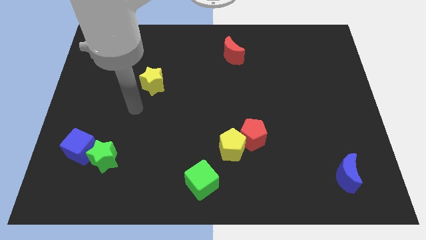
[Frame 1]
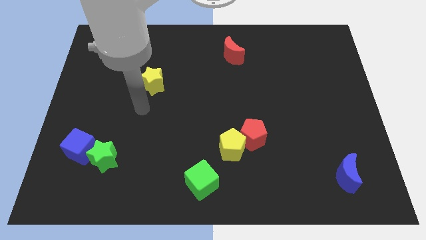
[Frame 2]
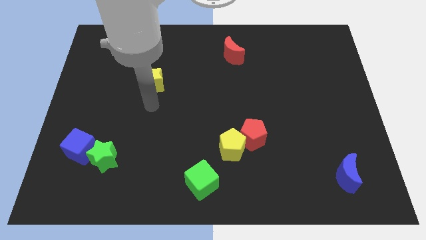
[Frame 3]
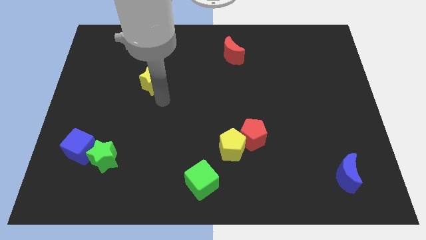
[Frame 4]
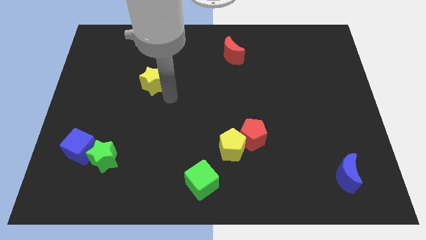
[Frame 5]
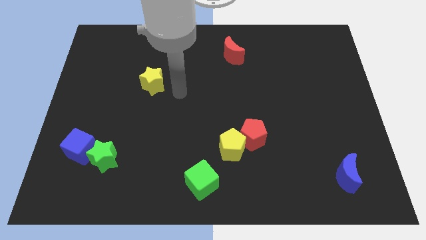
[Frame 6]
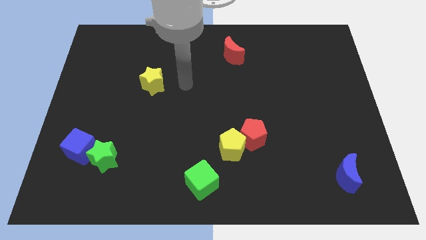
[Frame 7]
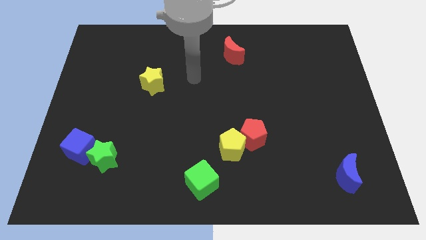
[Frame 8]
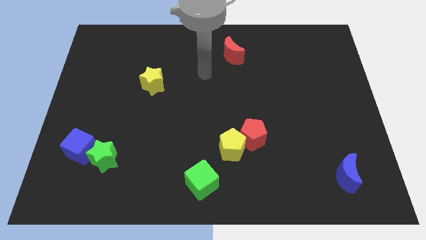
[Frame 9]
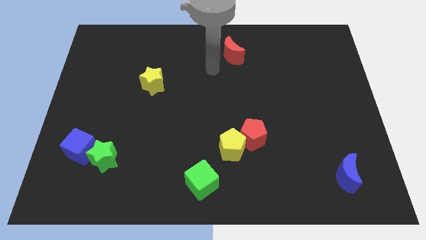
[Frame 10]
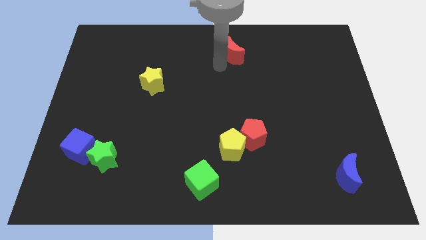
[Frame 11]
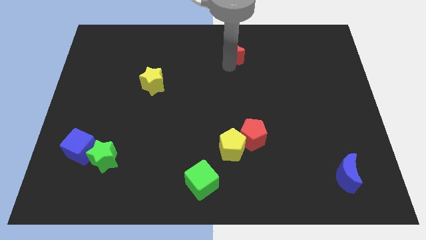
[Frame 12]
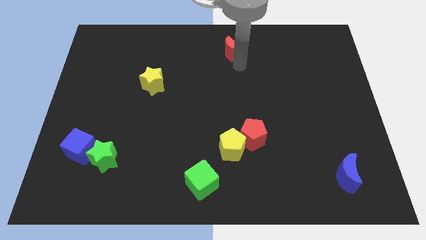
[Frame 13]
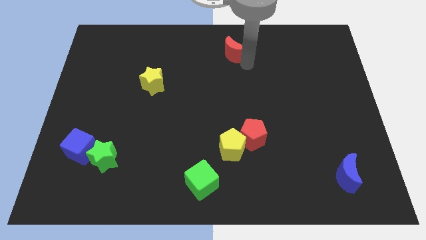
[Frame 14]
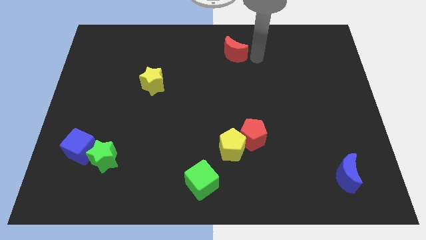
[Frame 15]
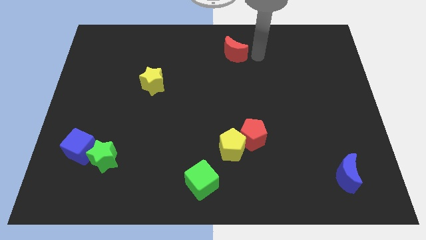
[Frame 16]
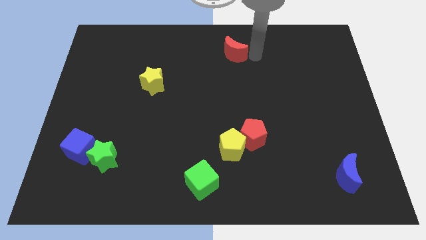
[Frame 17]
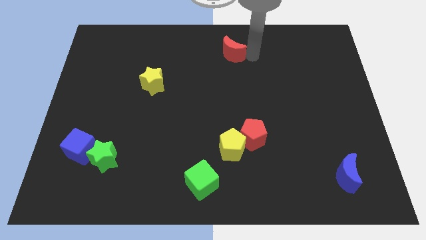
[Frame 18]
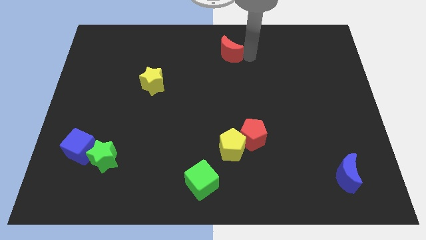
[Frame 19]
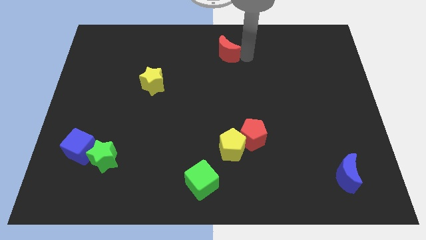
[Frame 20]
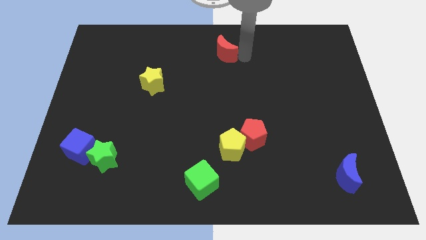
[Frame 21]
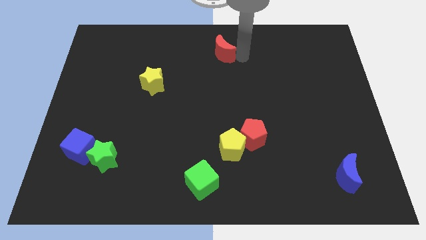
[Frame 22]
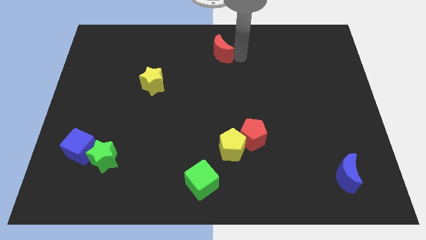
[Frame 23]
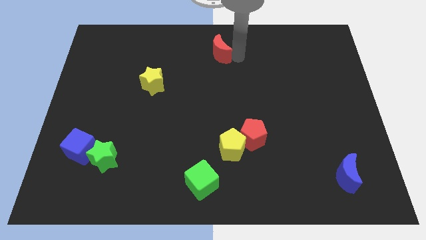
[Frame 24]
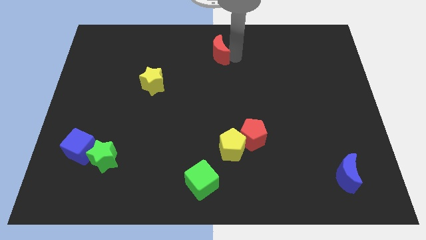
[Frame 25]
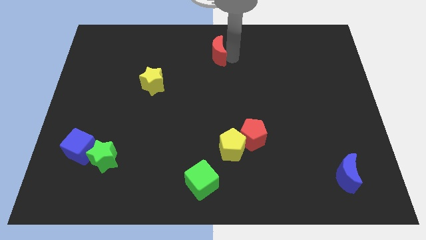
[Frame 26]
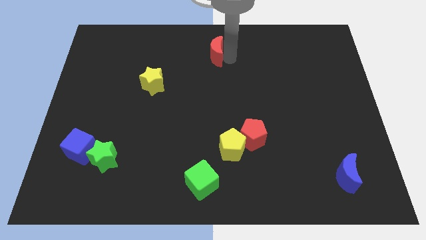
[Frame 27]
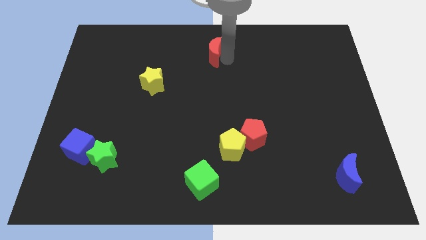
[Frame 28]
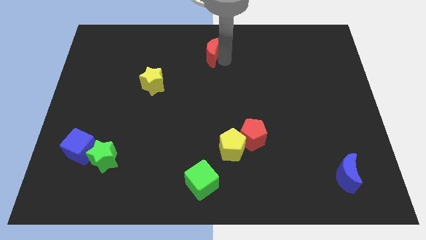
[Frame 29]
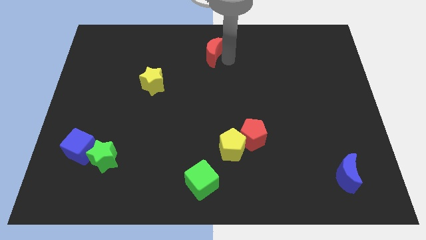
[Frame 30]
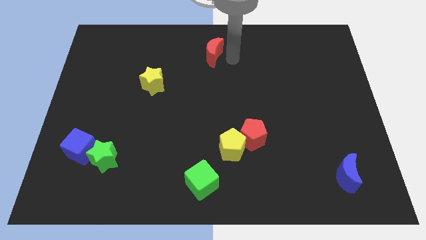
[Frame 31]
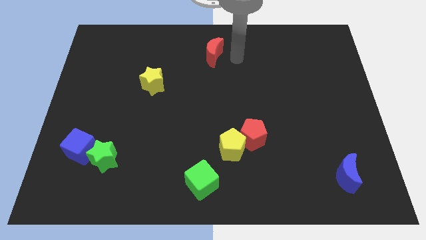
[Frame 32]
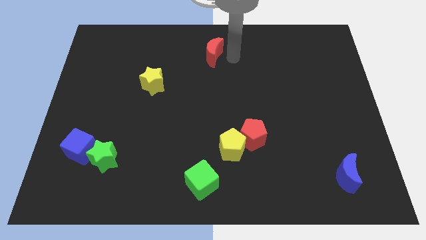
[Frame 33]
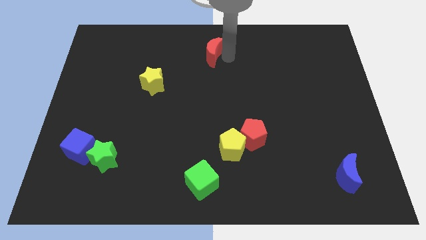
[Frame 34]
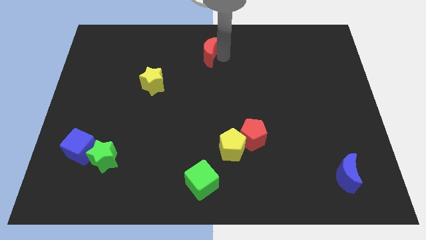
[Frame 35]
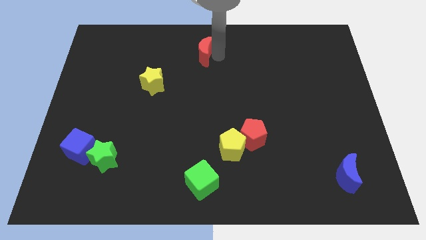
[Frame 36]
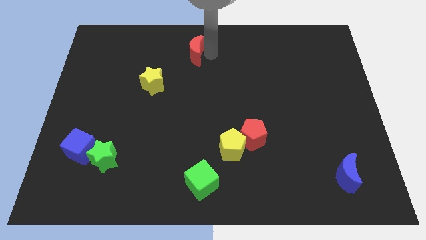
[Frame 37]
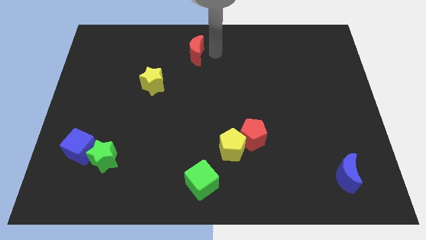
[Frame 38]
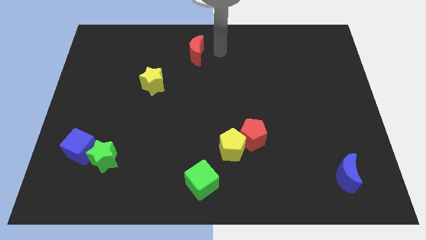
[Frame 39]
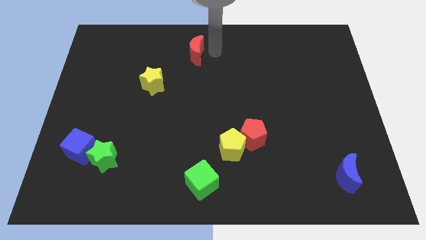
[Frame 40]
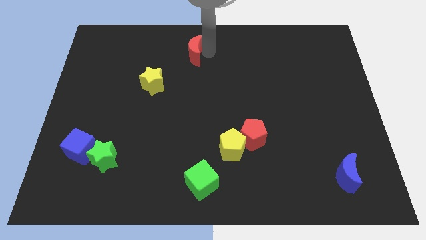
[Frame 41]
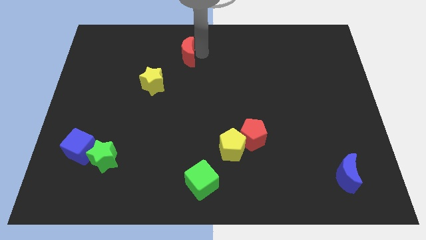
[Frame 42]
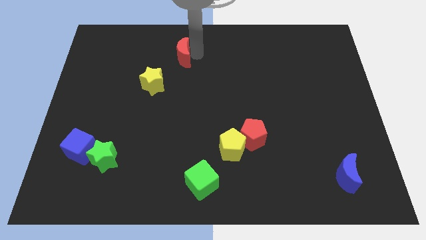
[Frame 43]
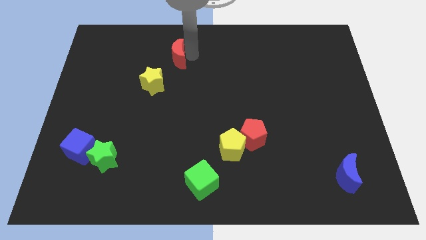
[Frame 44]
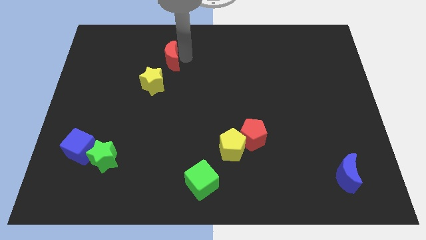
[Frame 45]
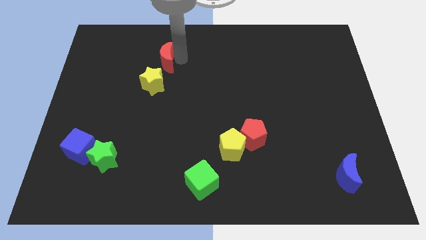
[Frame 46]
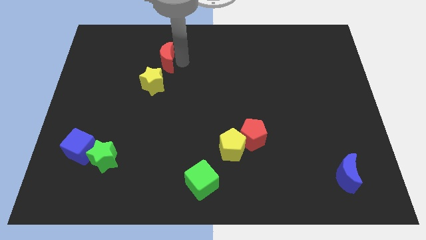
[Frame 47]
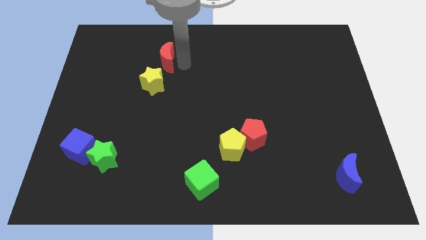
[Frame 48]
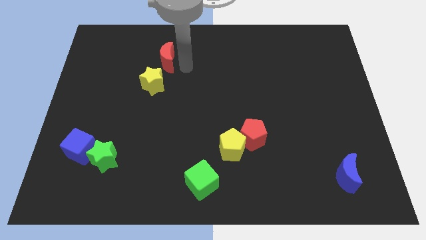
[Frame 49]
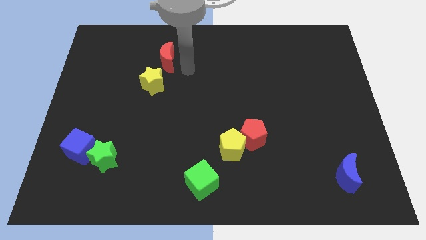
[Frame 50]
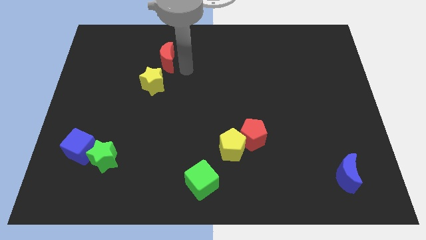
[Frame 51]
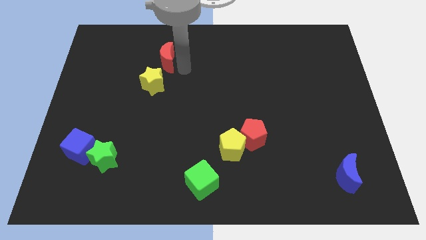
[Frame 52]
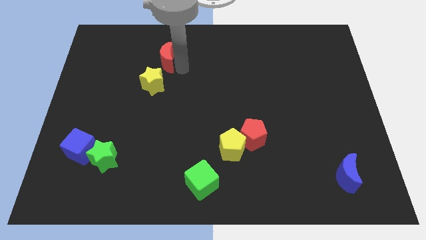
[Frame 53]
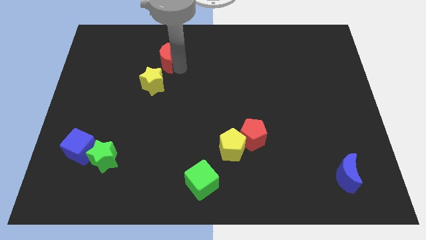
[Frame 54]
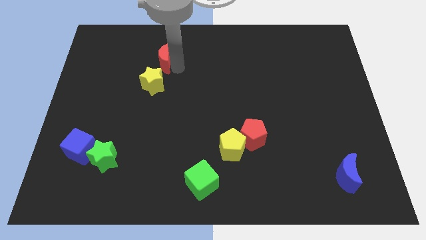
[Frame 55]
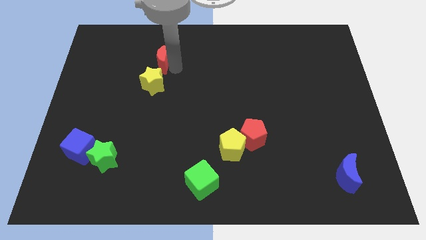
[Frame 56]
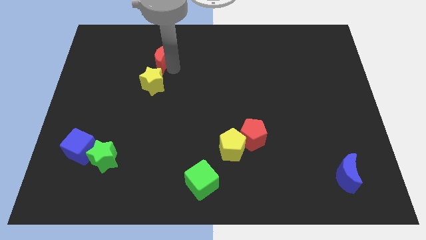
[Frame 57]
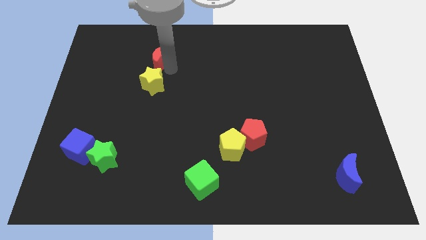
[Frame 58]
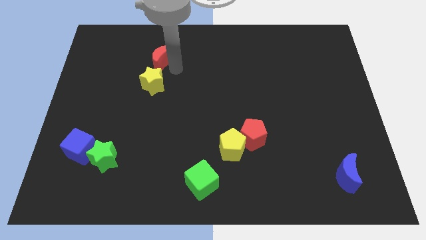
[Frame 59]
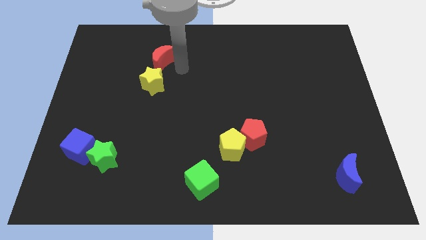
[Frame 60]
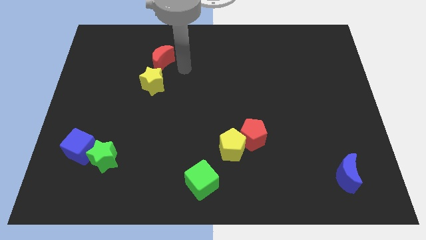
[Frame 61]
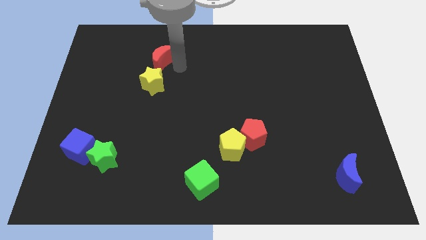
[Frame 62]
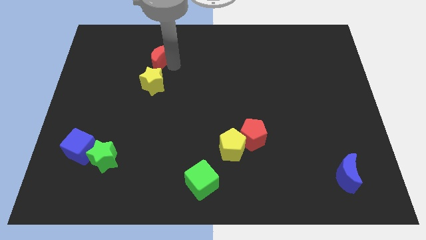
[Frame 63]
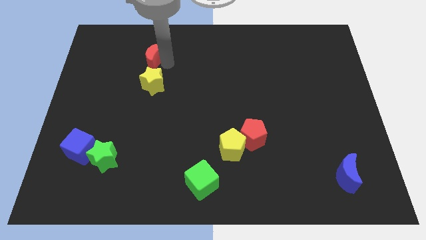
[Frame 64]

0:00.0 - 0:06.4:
move the red moon to the left

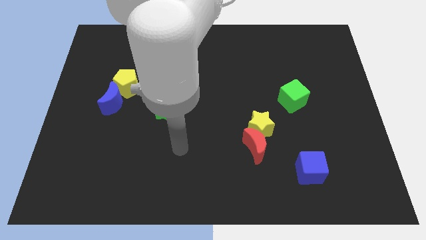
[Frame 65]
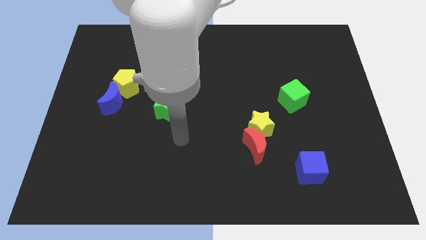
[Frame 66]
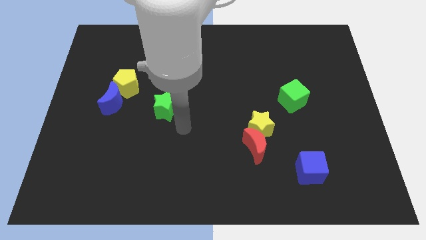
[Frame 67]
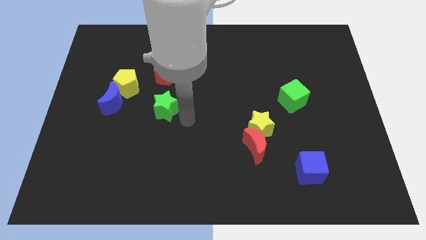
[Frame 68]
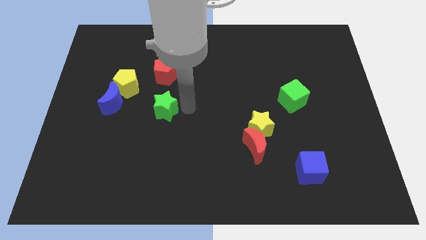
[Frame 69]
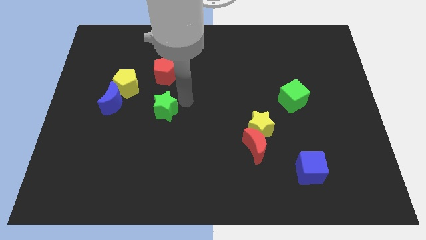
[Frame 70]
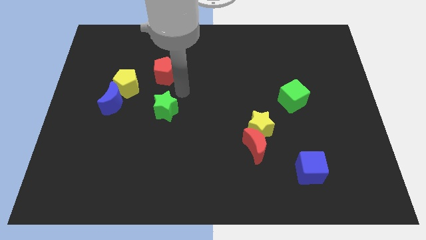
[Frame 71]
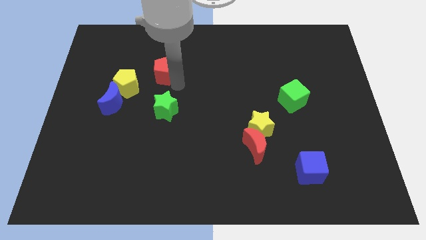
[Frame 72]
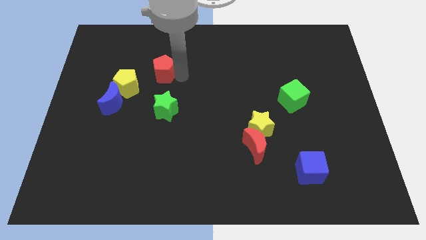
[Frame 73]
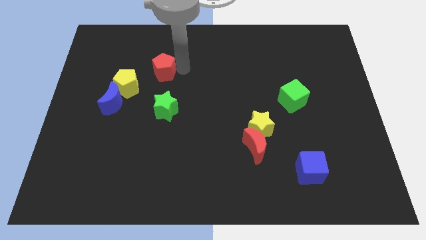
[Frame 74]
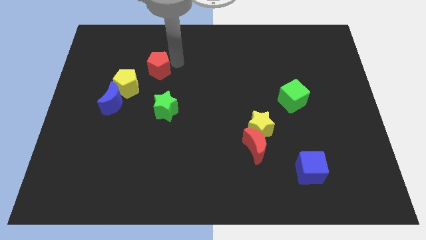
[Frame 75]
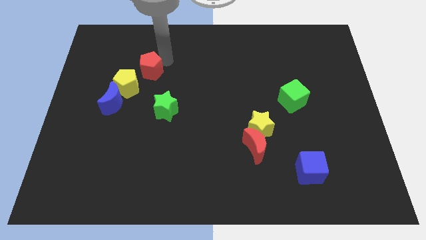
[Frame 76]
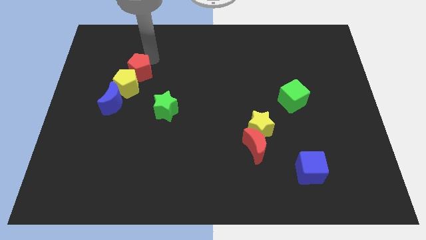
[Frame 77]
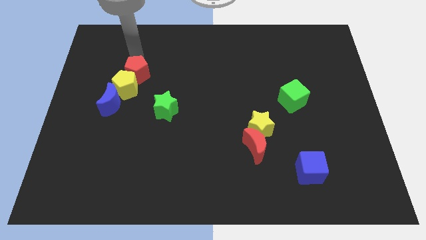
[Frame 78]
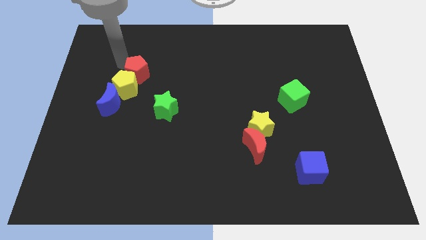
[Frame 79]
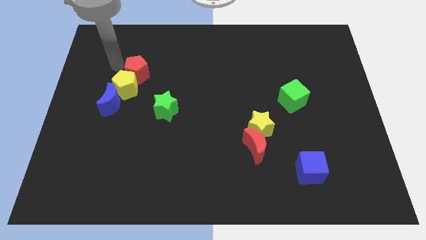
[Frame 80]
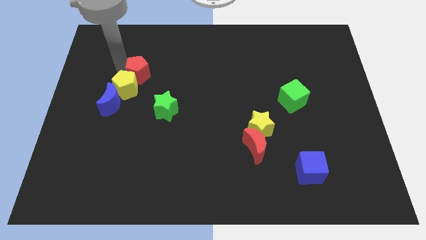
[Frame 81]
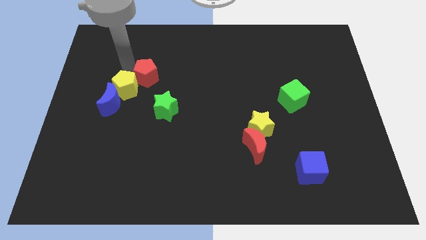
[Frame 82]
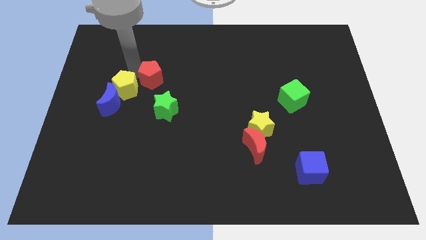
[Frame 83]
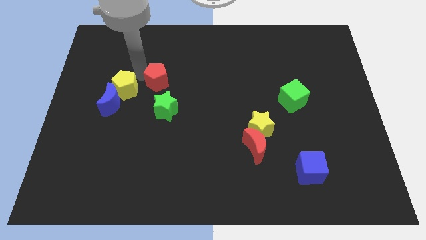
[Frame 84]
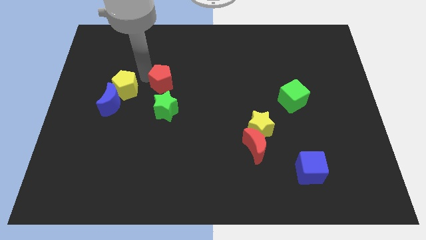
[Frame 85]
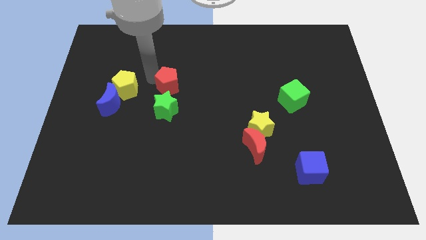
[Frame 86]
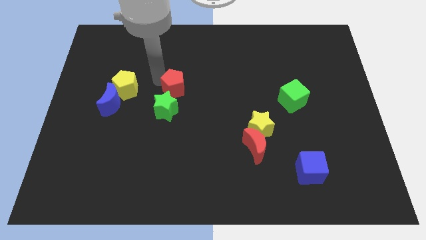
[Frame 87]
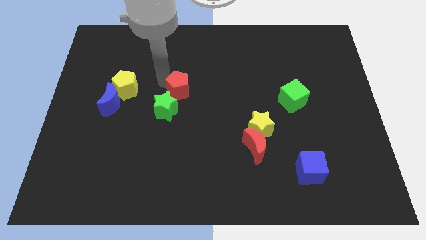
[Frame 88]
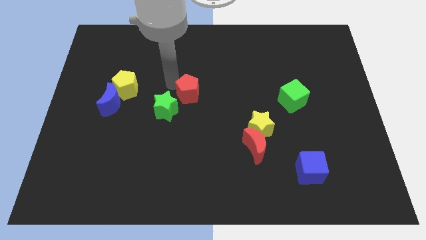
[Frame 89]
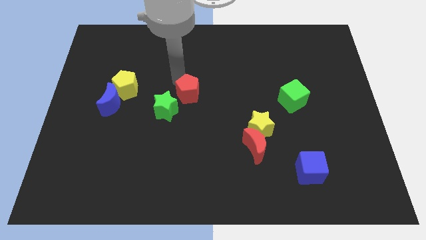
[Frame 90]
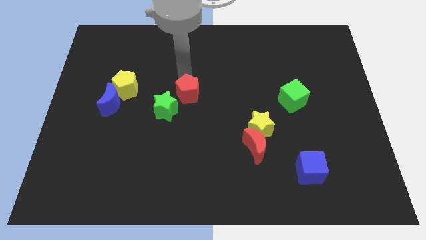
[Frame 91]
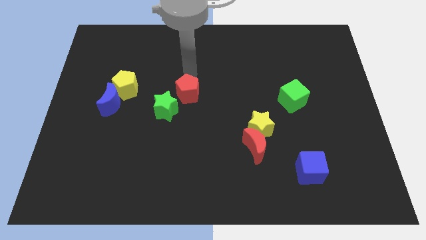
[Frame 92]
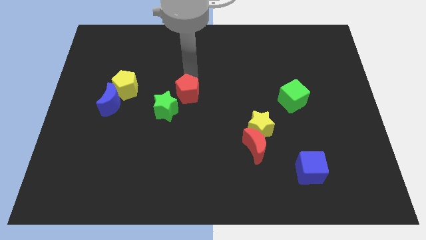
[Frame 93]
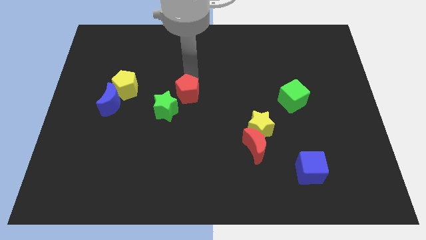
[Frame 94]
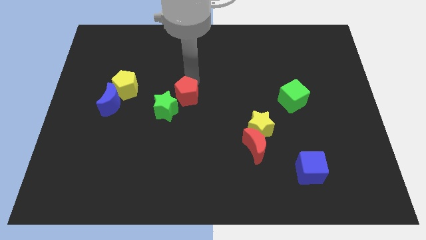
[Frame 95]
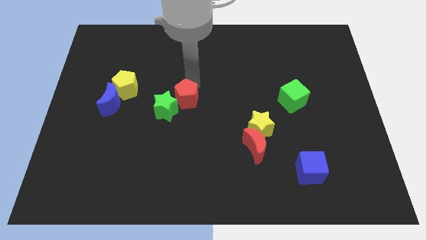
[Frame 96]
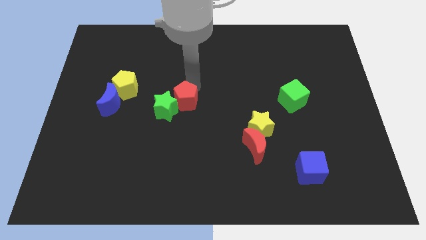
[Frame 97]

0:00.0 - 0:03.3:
slightly move the red pentagon down
